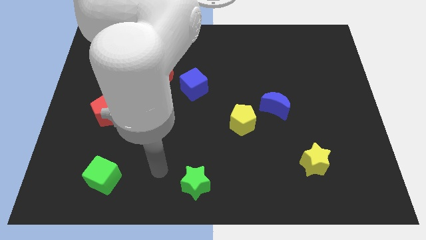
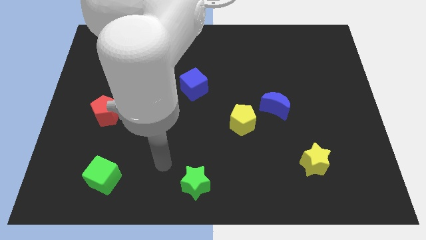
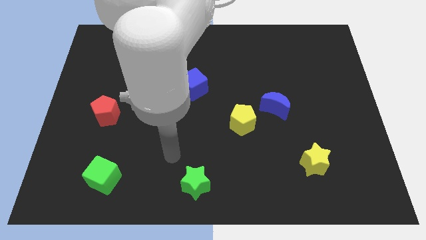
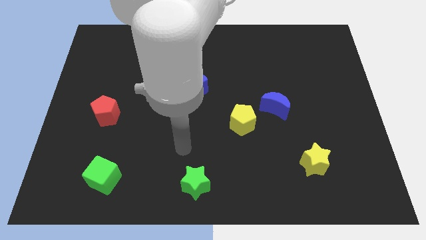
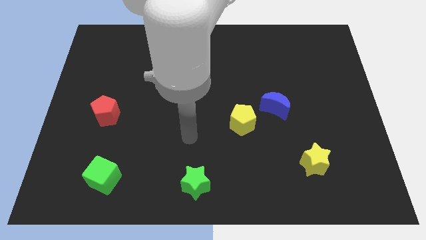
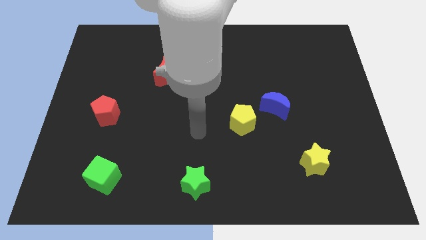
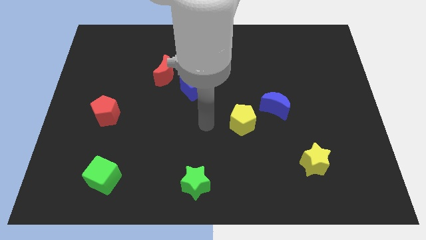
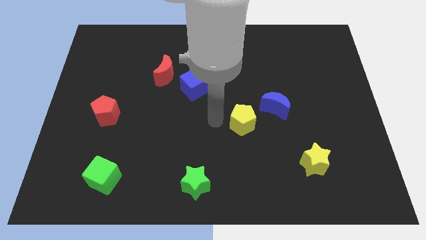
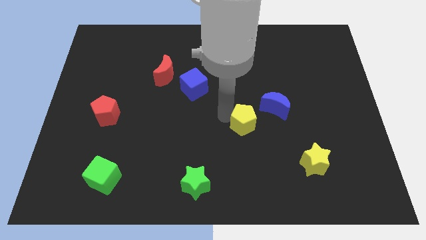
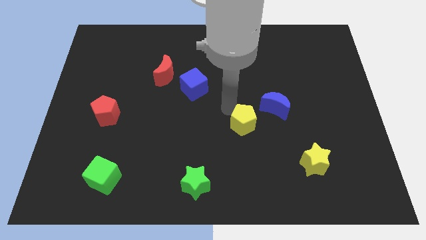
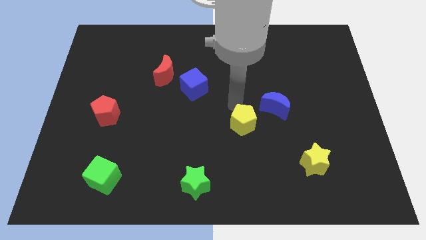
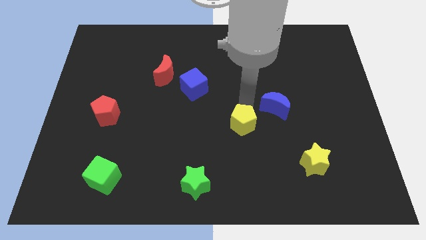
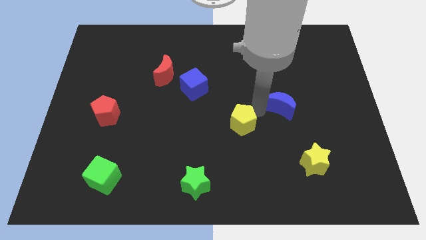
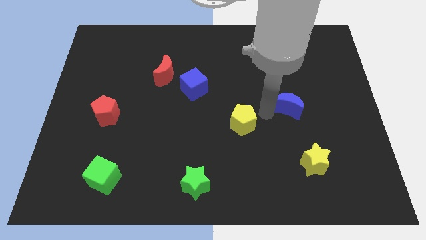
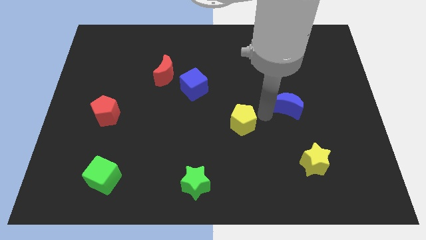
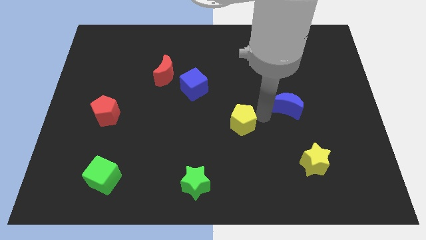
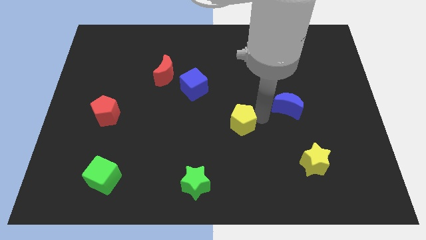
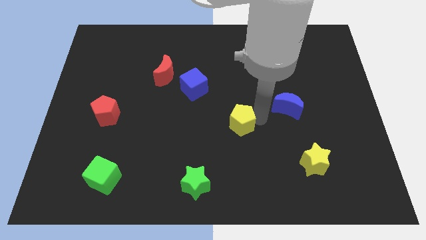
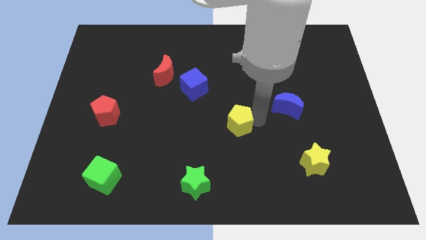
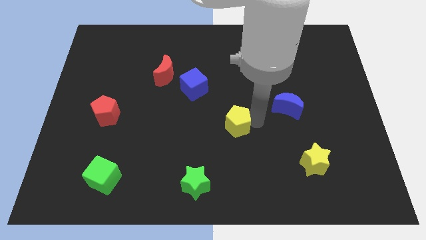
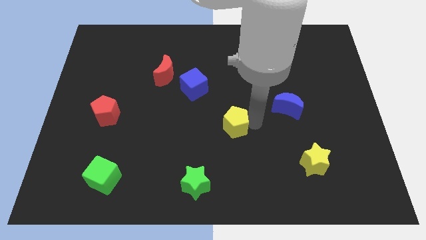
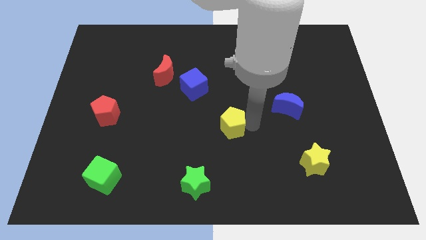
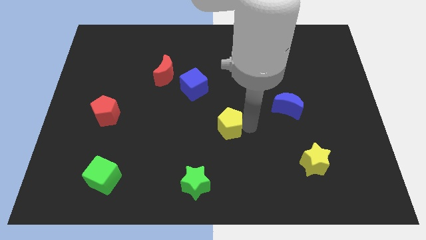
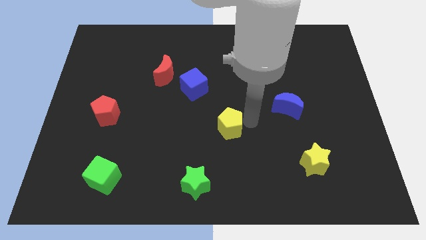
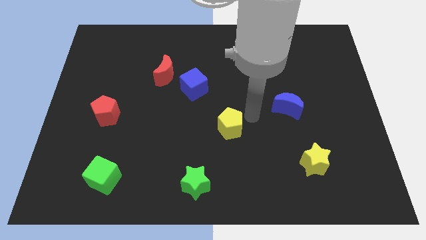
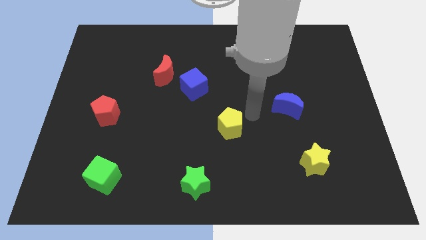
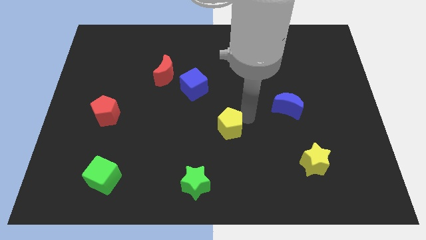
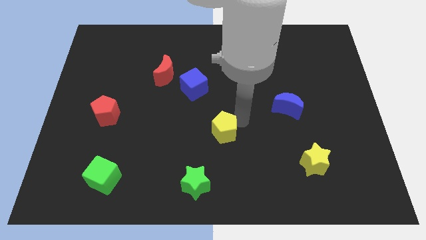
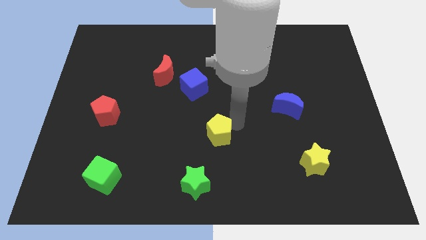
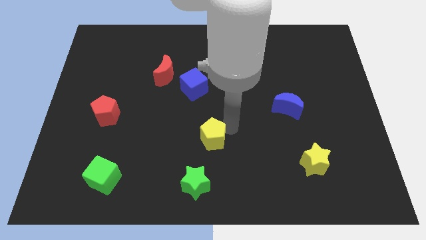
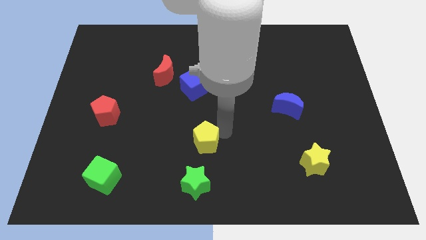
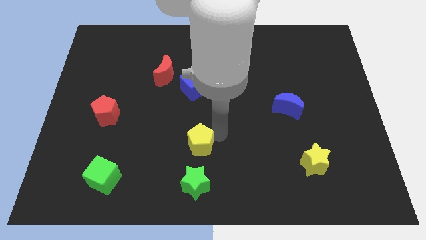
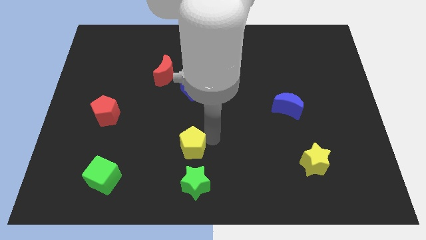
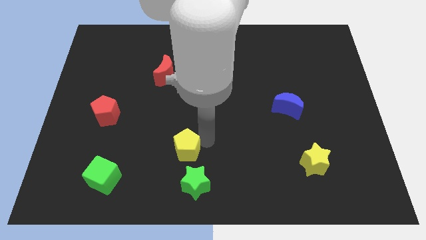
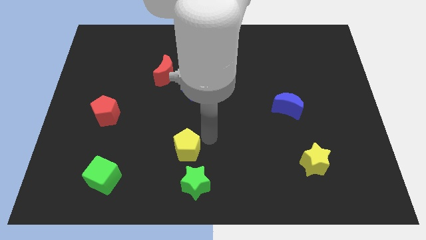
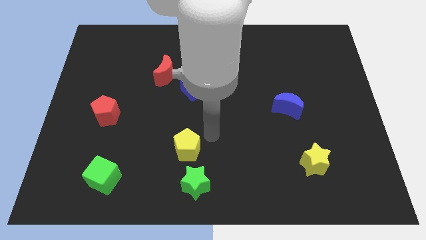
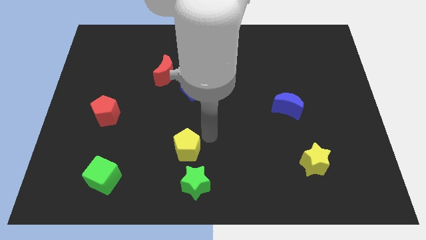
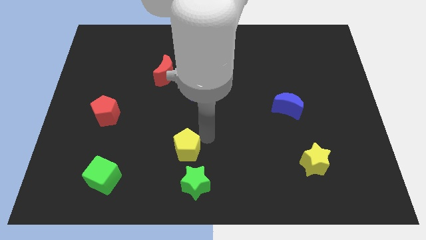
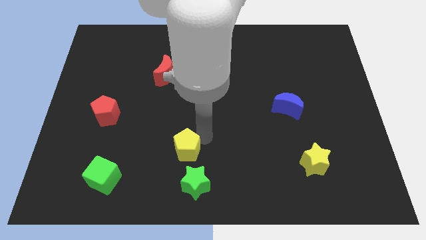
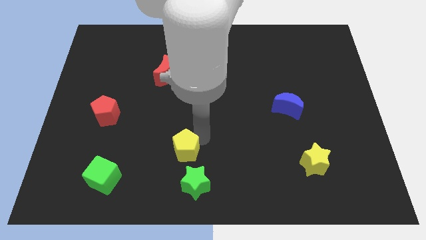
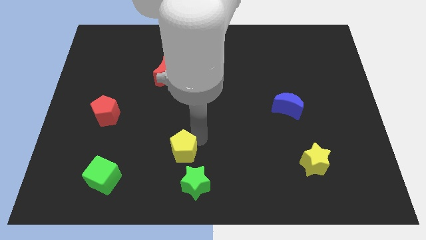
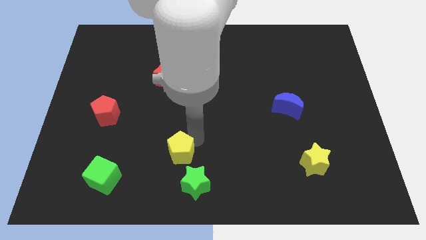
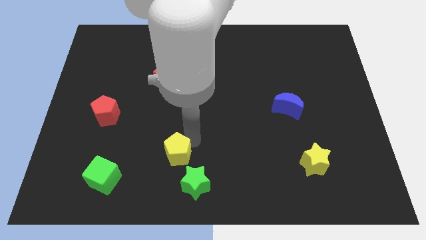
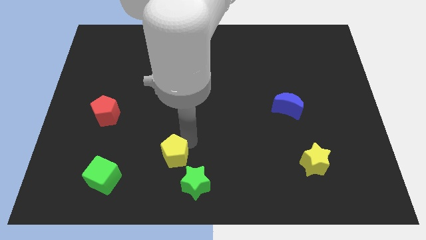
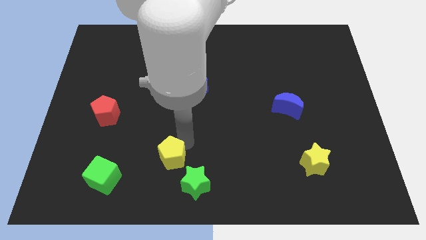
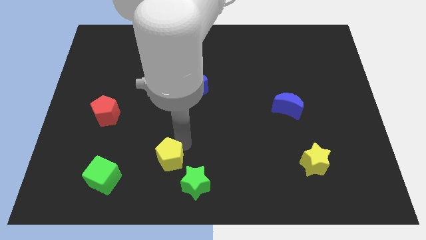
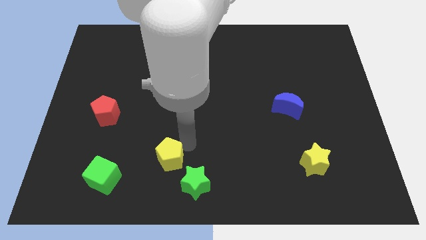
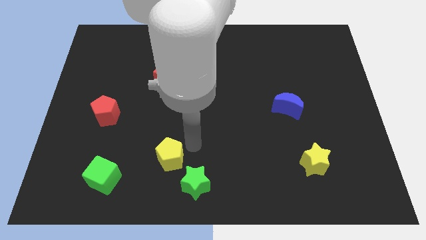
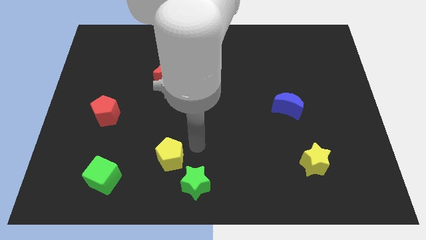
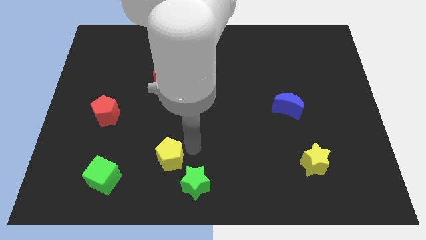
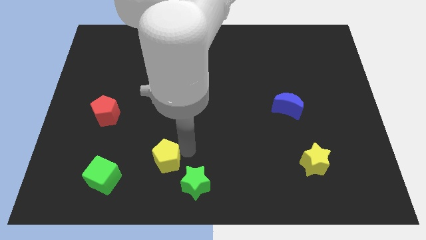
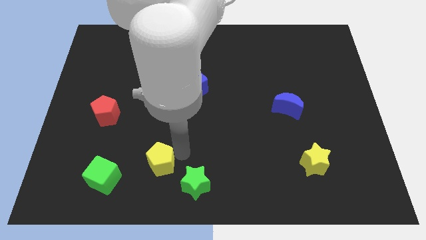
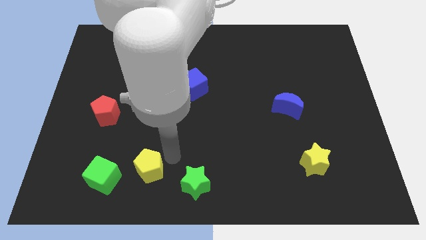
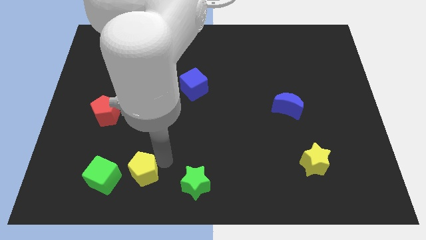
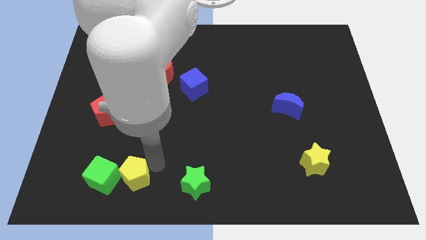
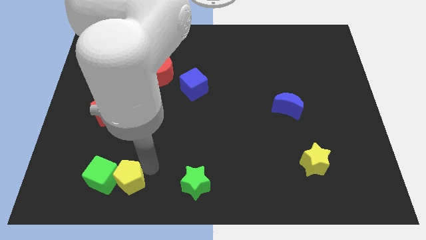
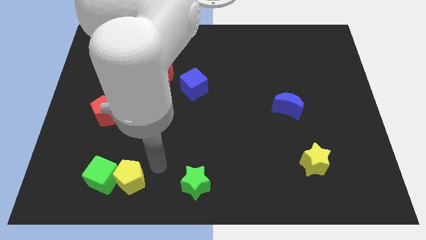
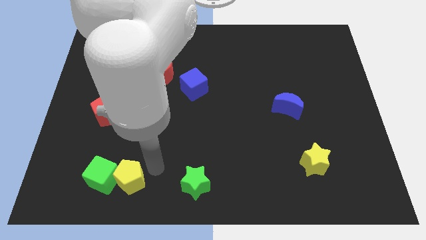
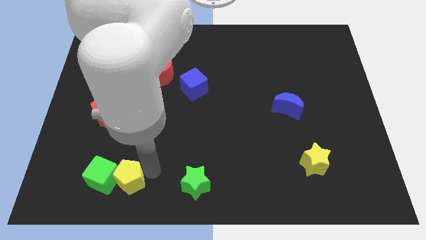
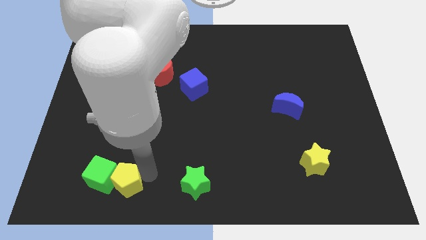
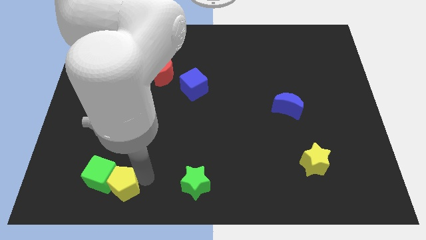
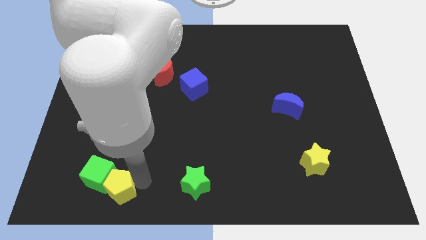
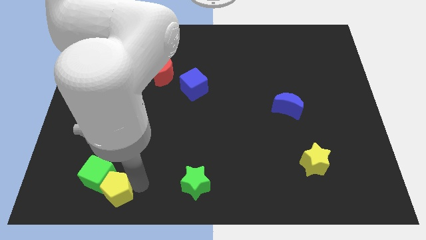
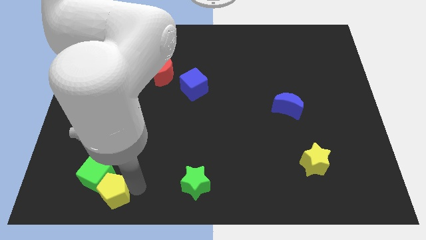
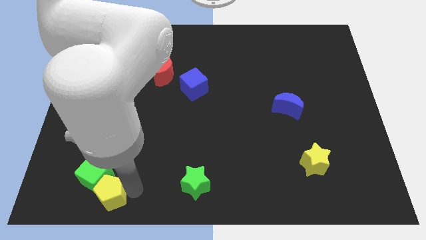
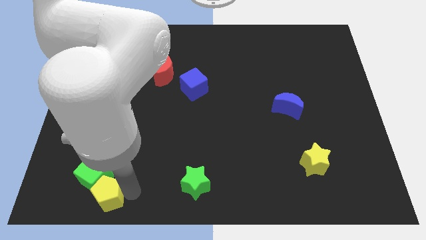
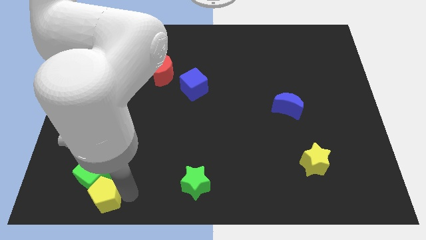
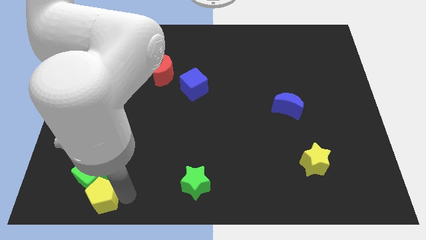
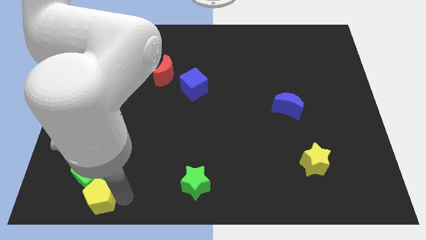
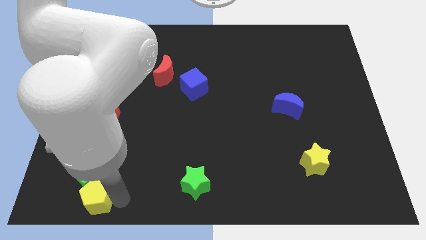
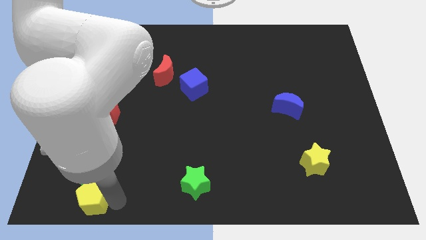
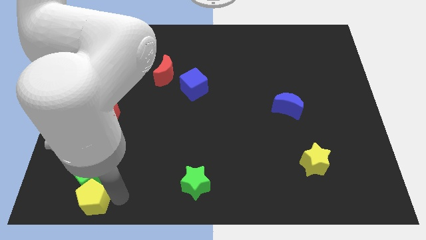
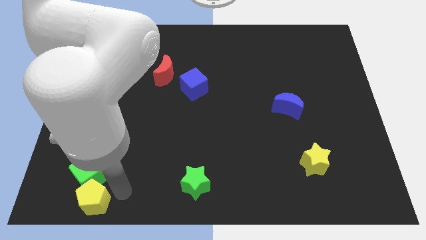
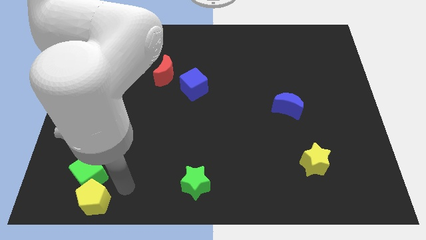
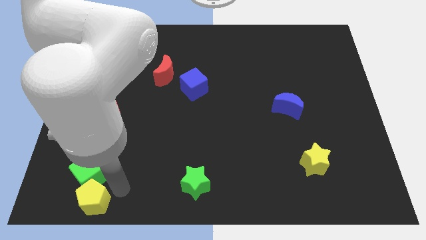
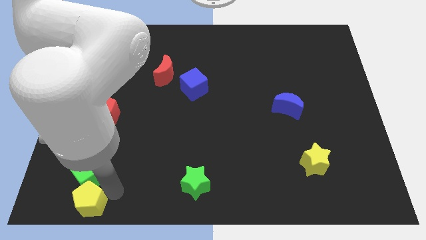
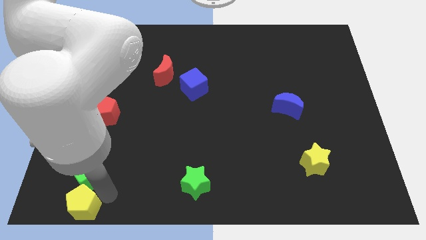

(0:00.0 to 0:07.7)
move the yellow pentagon to the bottom left of the board

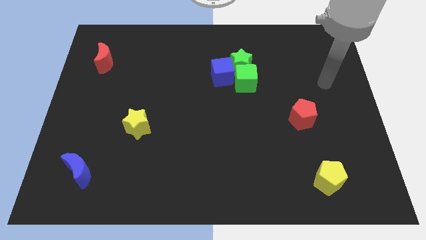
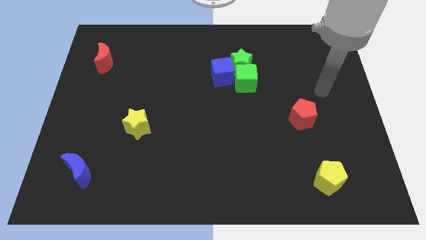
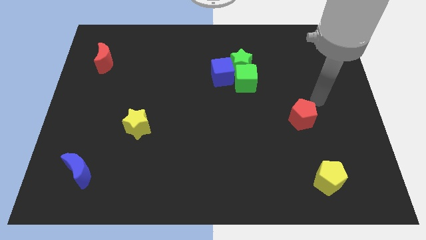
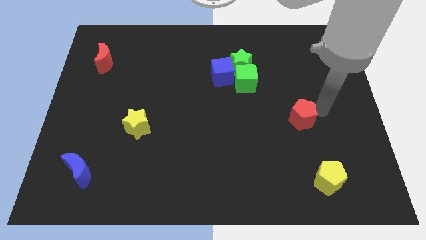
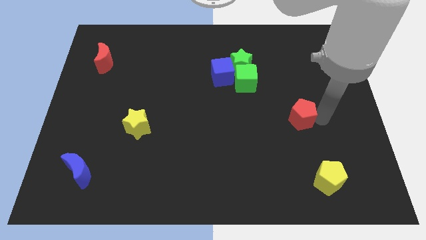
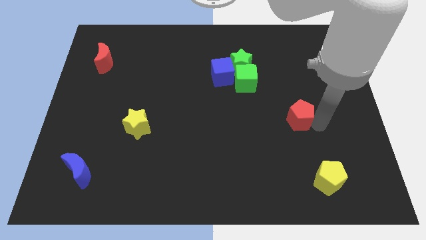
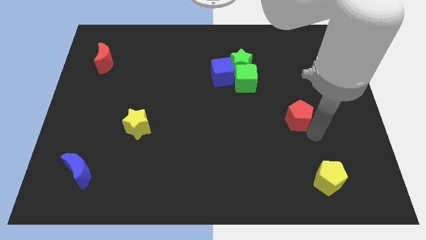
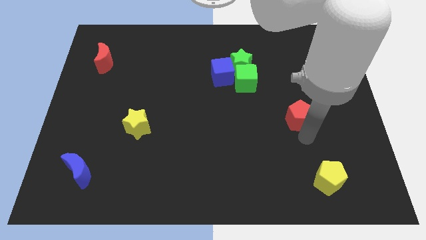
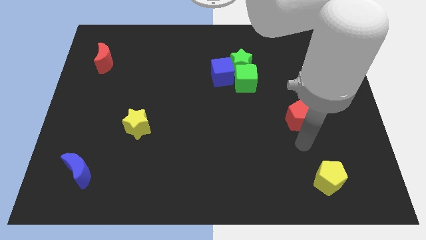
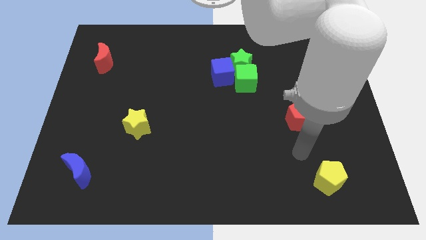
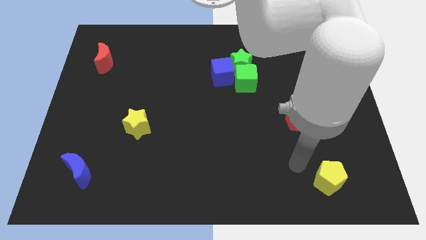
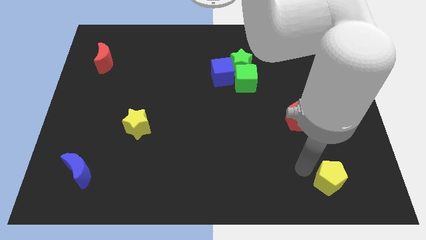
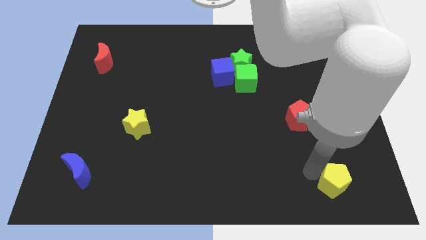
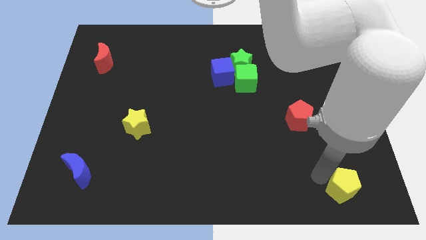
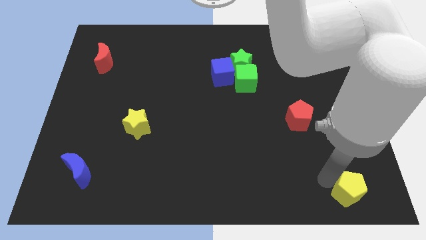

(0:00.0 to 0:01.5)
move the yellow pentagon to the bottom right
